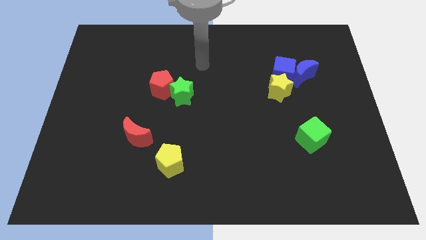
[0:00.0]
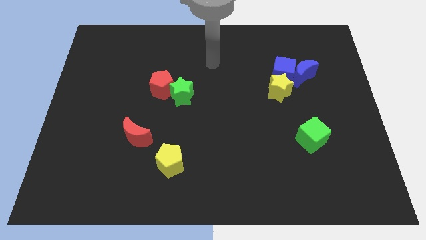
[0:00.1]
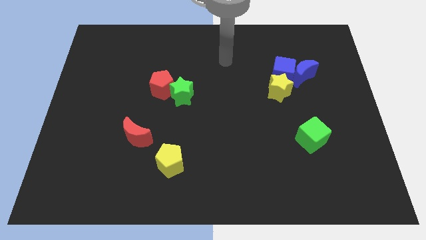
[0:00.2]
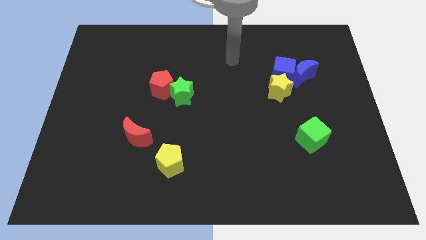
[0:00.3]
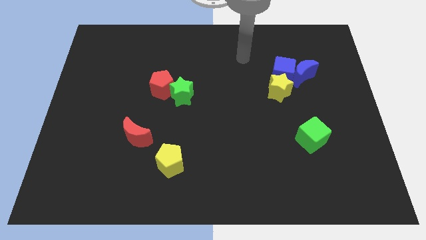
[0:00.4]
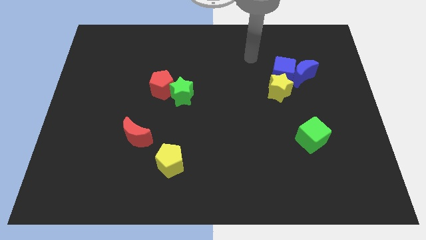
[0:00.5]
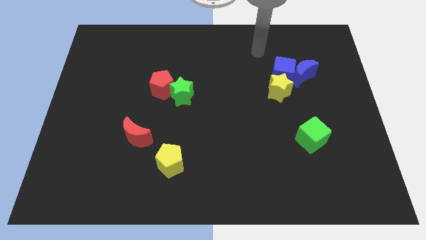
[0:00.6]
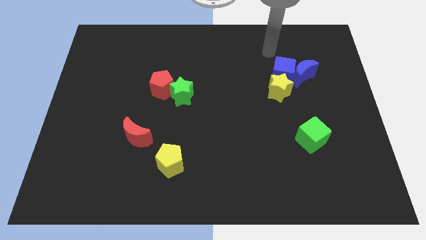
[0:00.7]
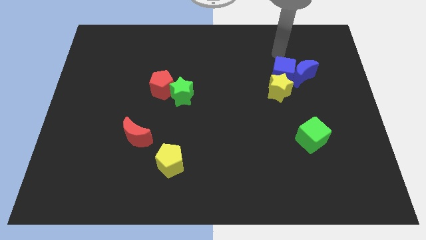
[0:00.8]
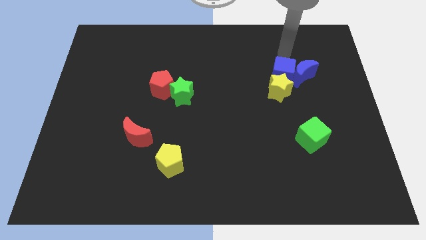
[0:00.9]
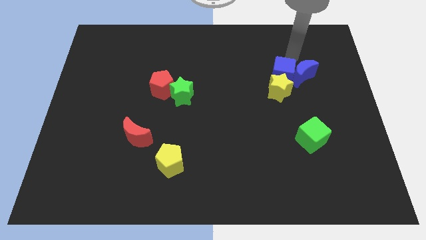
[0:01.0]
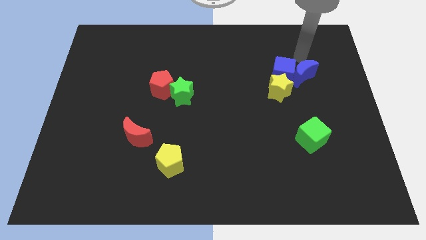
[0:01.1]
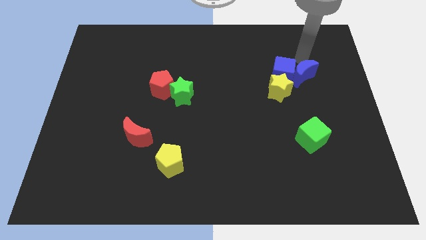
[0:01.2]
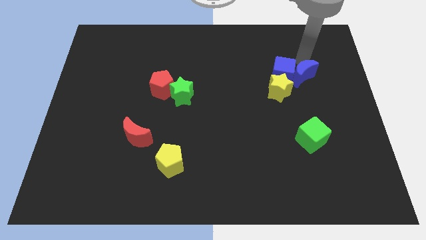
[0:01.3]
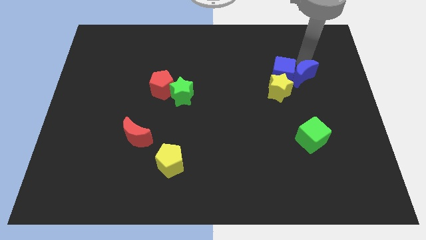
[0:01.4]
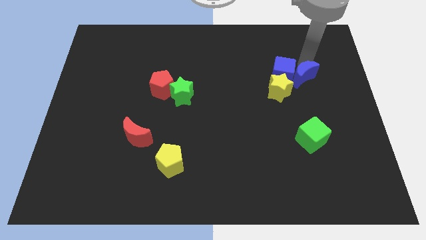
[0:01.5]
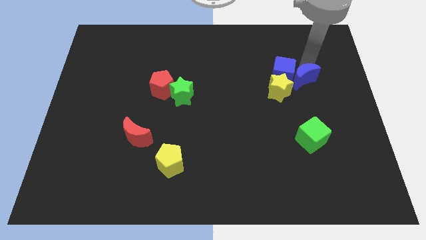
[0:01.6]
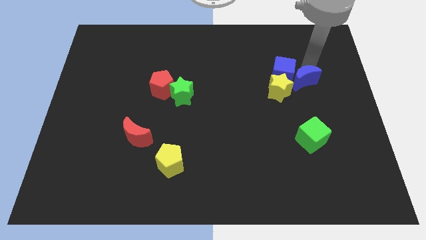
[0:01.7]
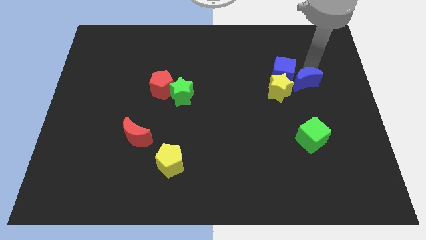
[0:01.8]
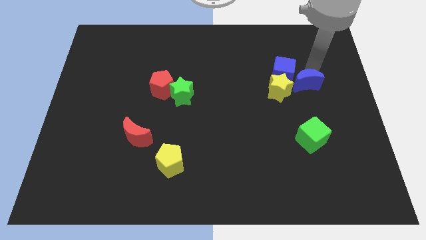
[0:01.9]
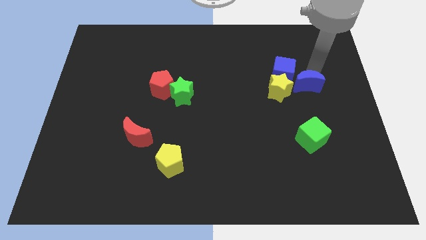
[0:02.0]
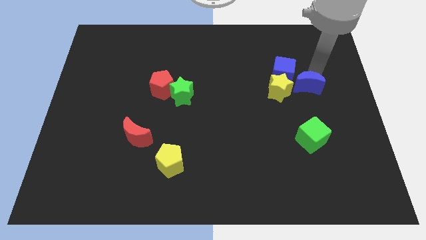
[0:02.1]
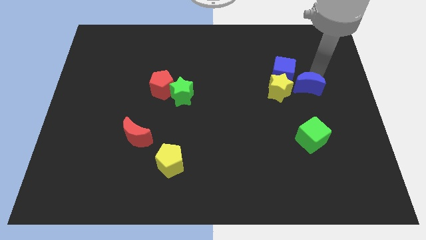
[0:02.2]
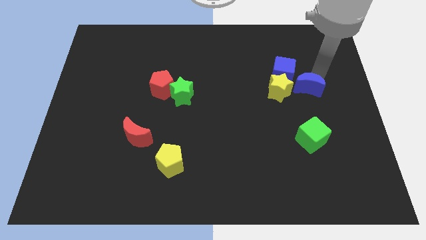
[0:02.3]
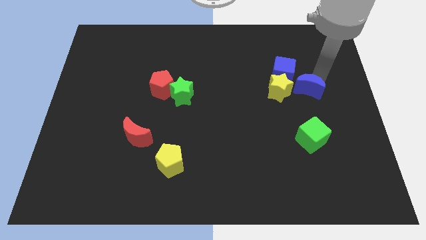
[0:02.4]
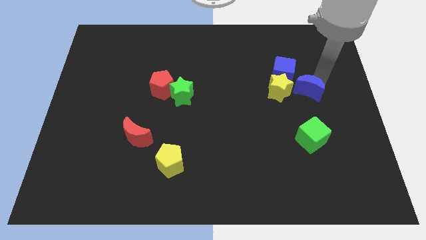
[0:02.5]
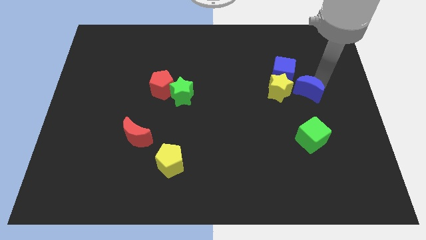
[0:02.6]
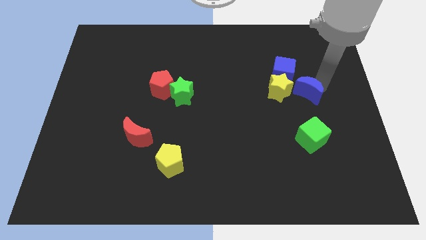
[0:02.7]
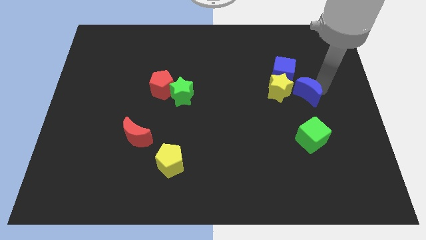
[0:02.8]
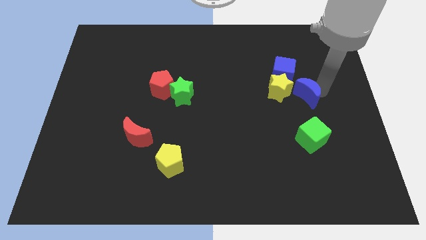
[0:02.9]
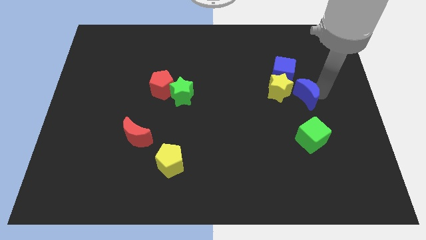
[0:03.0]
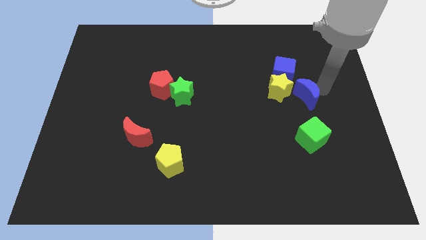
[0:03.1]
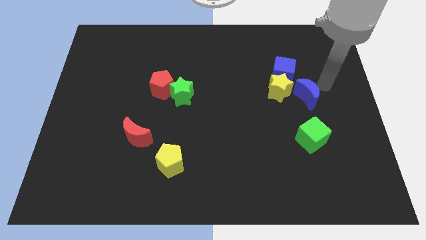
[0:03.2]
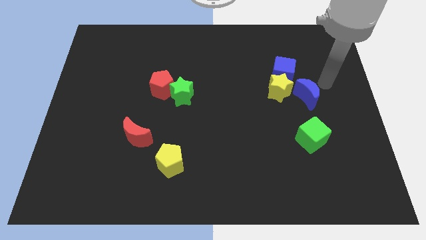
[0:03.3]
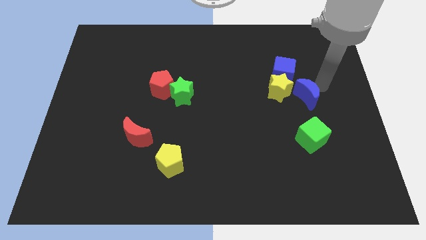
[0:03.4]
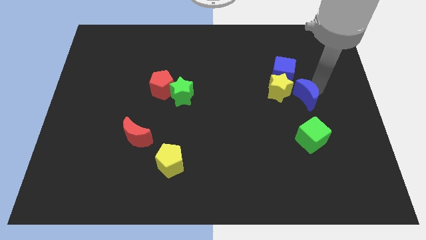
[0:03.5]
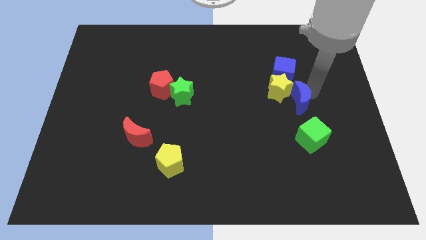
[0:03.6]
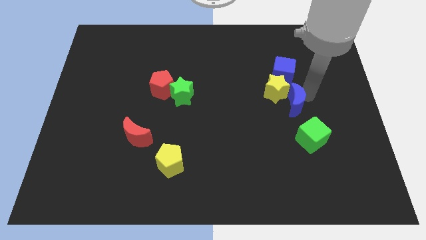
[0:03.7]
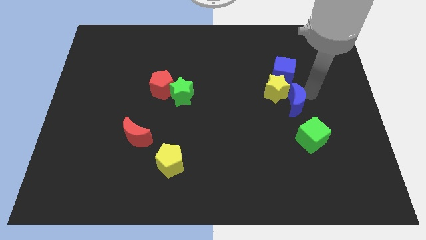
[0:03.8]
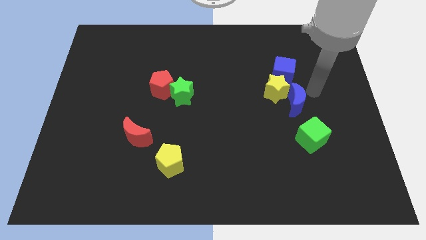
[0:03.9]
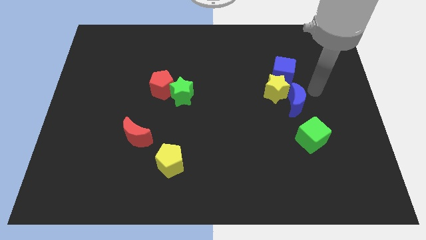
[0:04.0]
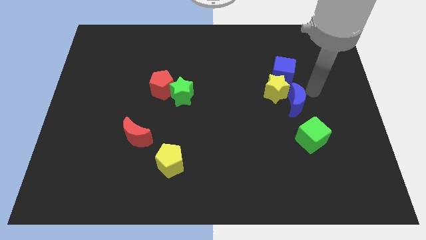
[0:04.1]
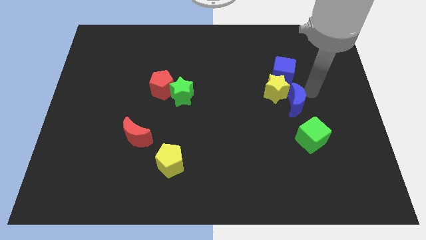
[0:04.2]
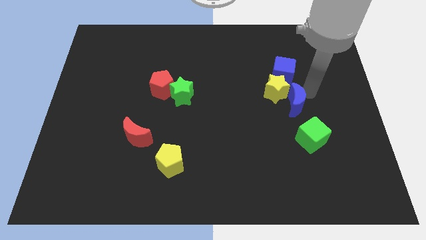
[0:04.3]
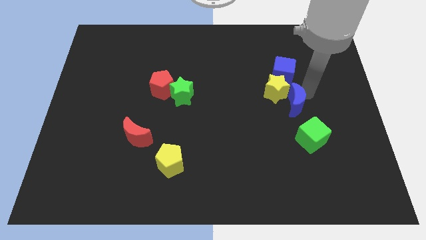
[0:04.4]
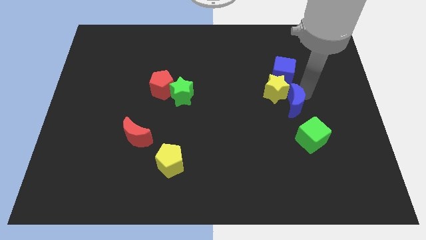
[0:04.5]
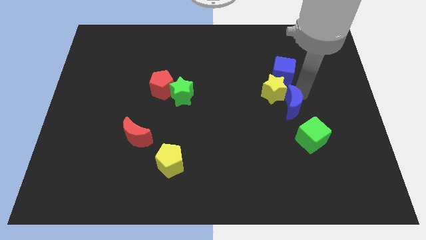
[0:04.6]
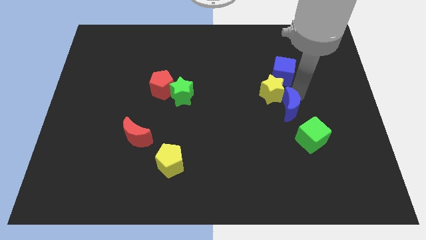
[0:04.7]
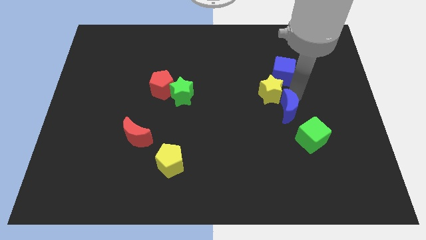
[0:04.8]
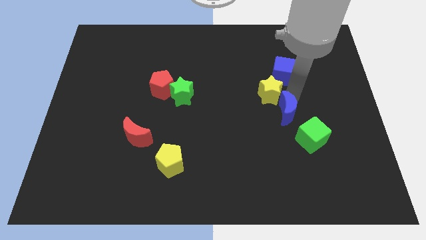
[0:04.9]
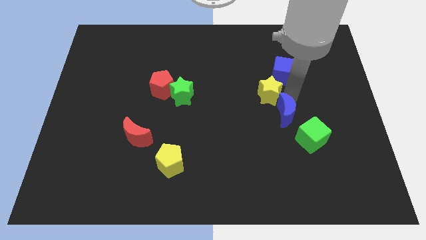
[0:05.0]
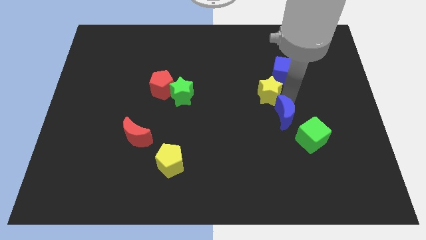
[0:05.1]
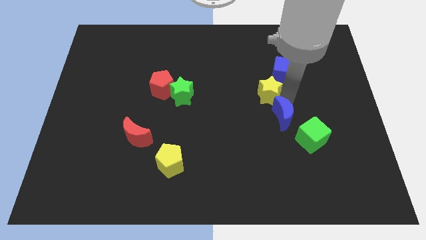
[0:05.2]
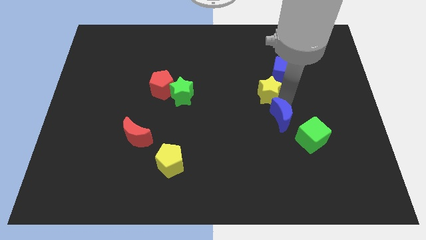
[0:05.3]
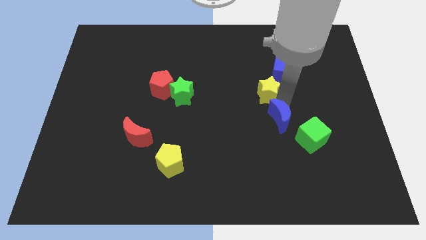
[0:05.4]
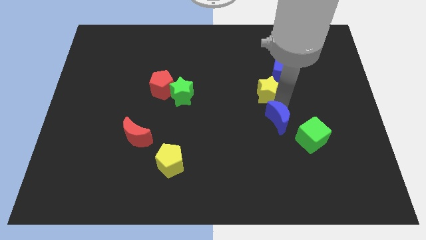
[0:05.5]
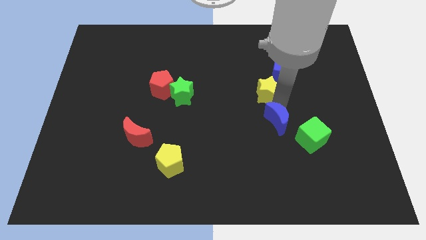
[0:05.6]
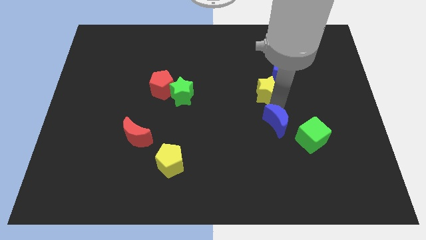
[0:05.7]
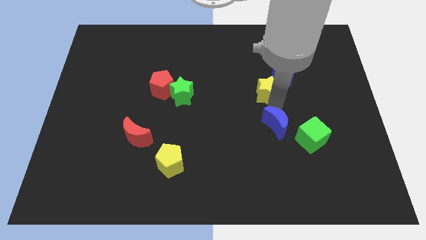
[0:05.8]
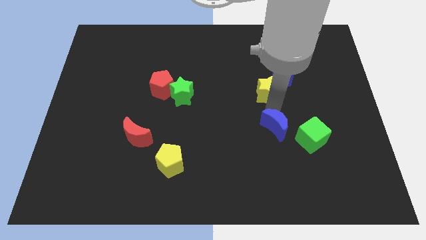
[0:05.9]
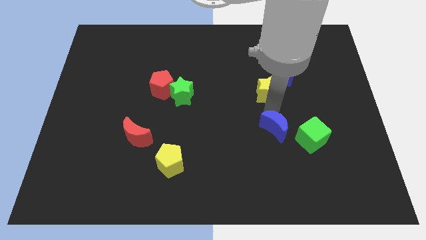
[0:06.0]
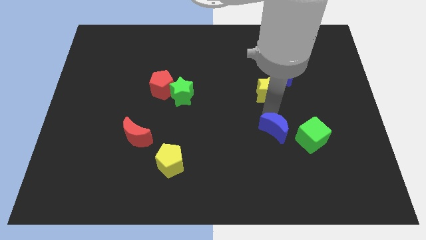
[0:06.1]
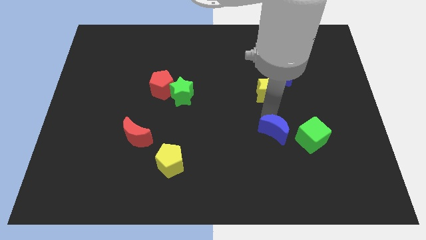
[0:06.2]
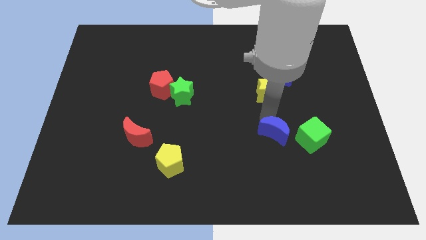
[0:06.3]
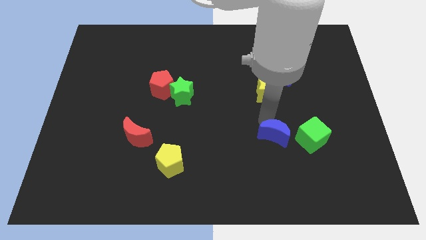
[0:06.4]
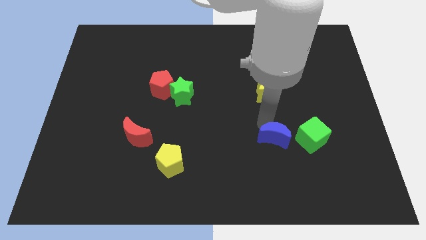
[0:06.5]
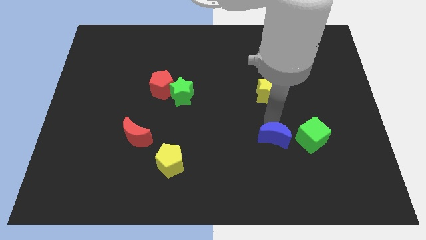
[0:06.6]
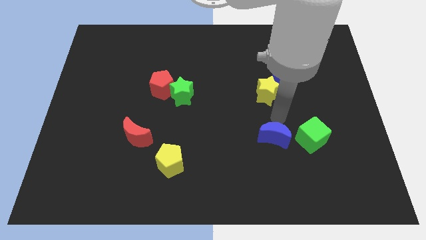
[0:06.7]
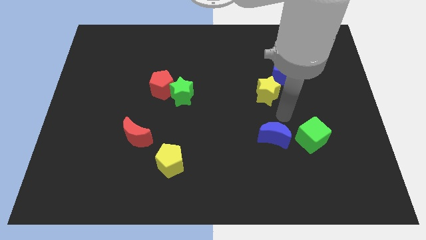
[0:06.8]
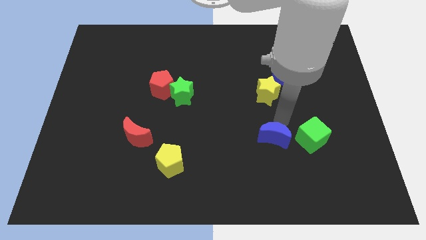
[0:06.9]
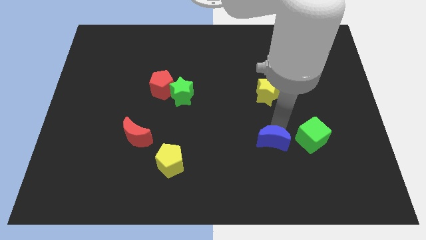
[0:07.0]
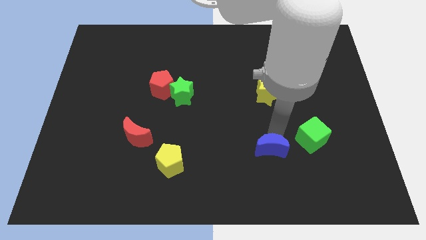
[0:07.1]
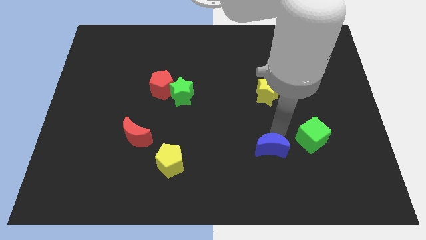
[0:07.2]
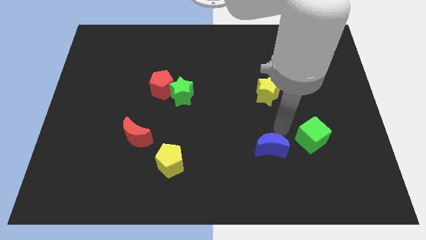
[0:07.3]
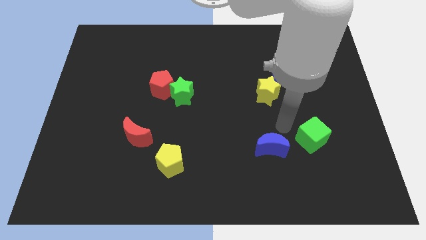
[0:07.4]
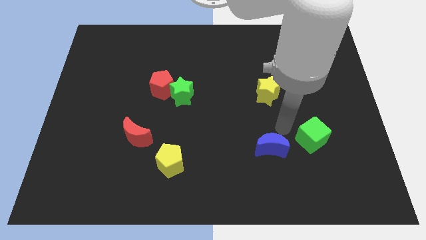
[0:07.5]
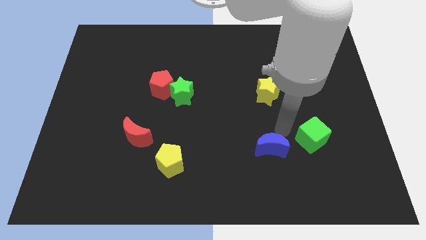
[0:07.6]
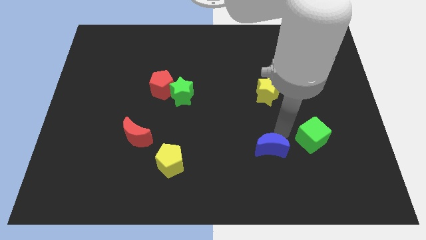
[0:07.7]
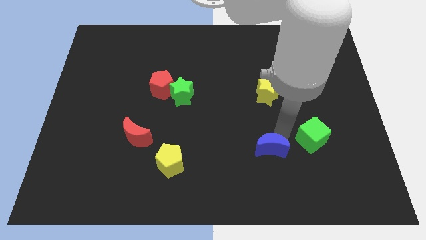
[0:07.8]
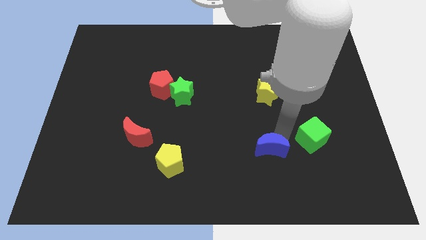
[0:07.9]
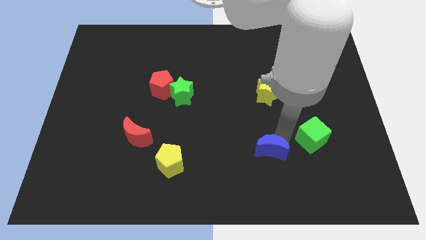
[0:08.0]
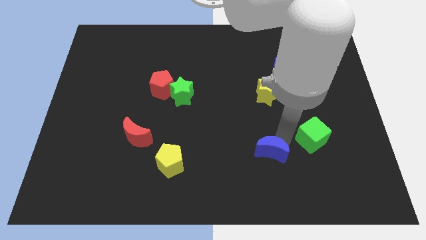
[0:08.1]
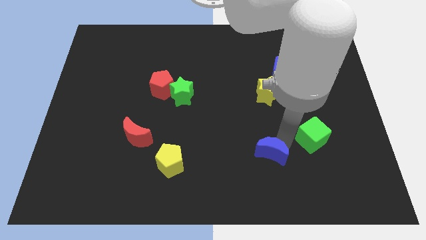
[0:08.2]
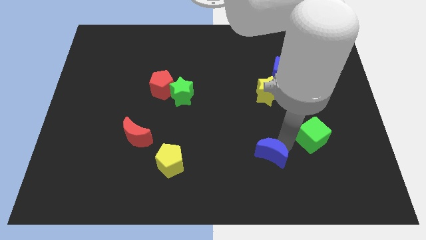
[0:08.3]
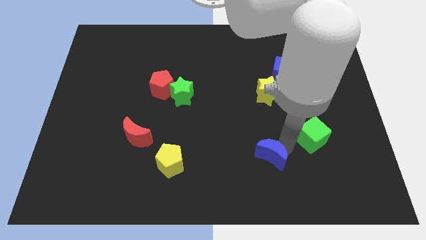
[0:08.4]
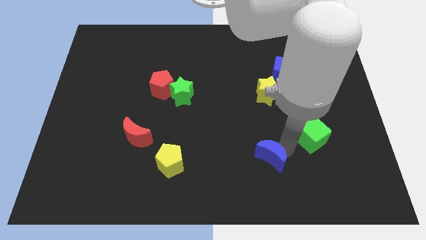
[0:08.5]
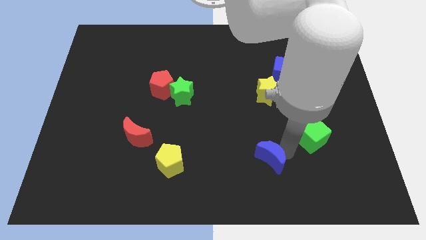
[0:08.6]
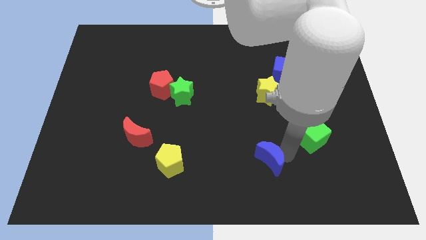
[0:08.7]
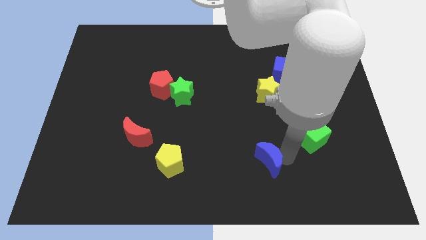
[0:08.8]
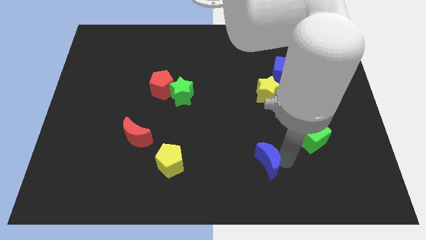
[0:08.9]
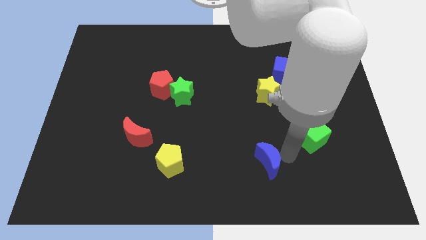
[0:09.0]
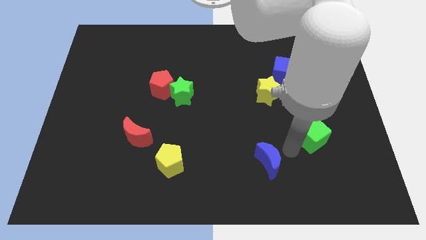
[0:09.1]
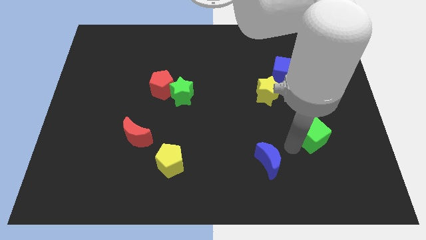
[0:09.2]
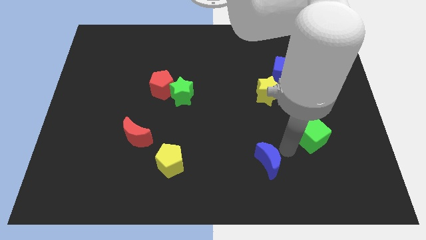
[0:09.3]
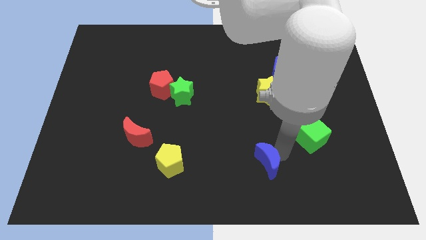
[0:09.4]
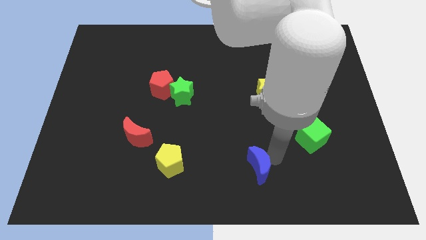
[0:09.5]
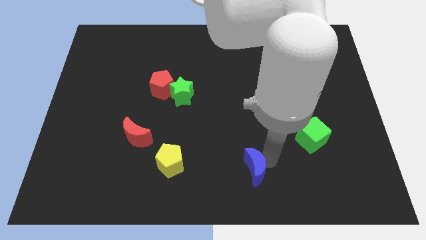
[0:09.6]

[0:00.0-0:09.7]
slide the blue moon to the bottom
